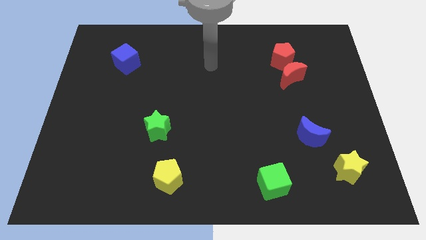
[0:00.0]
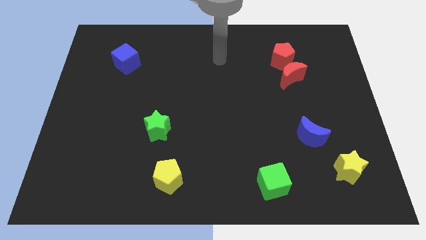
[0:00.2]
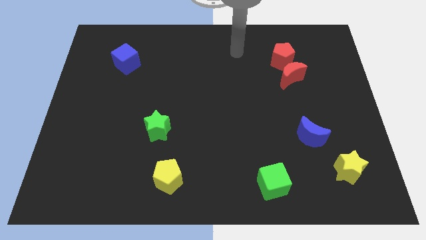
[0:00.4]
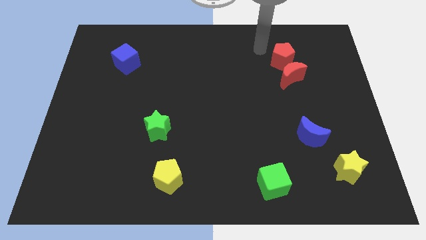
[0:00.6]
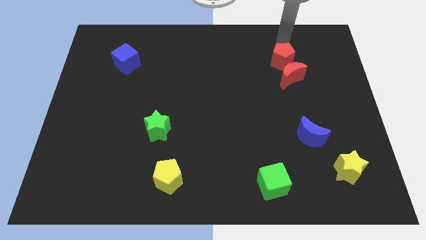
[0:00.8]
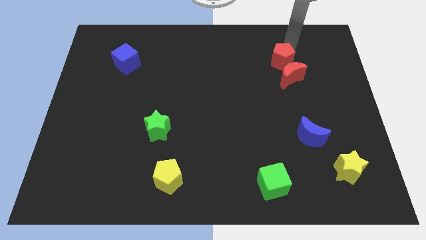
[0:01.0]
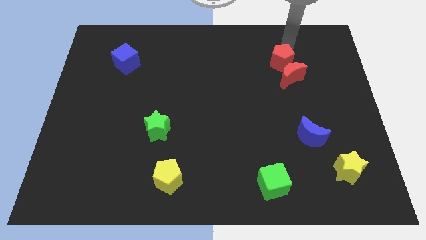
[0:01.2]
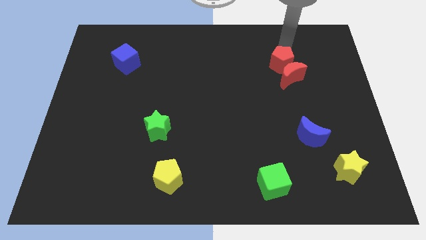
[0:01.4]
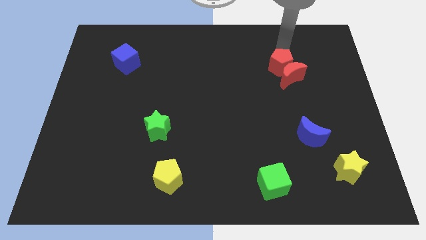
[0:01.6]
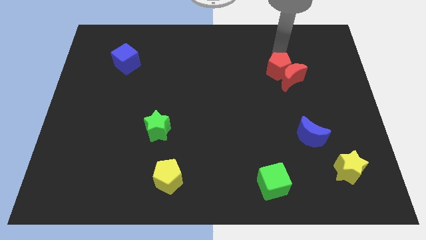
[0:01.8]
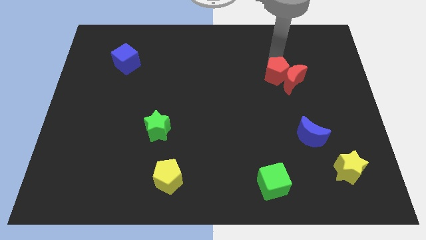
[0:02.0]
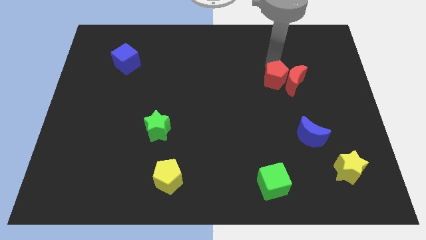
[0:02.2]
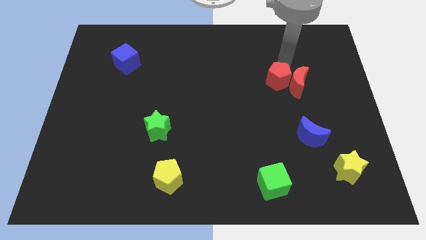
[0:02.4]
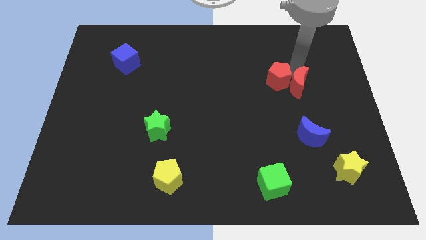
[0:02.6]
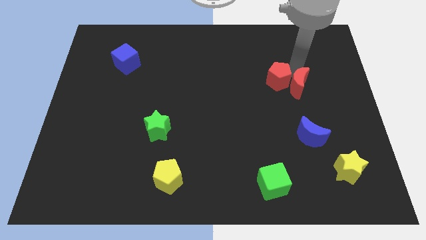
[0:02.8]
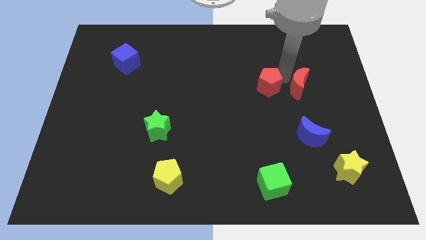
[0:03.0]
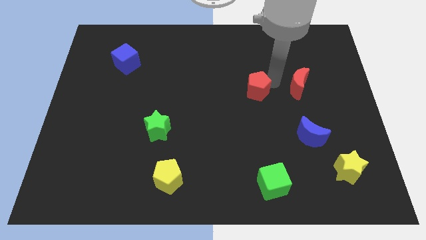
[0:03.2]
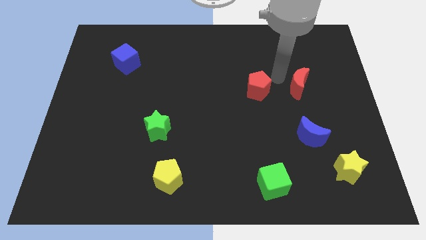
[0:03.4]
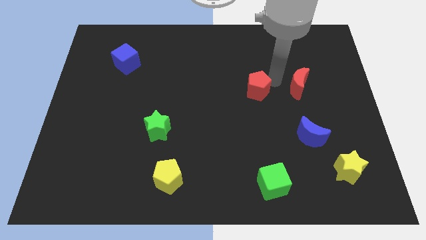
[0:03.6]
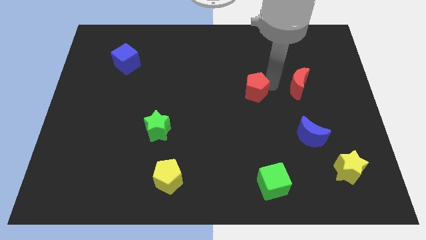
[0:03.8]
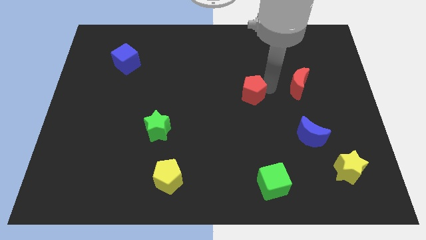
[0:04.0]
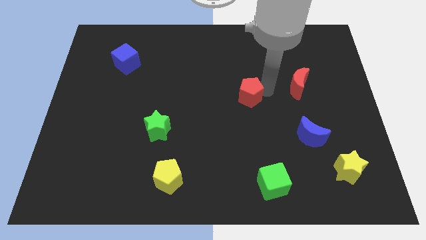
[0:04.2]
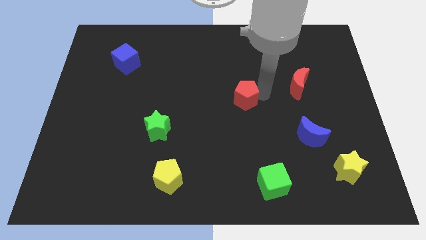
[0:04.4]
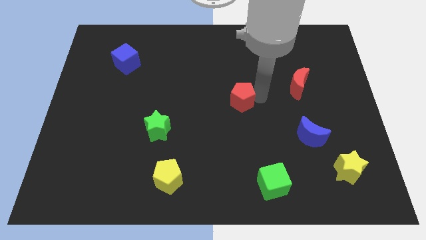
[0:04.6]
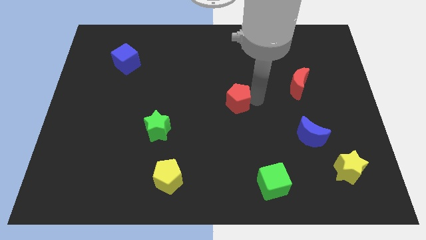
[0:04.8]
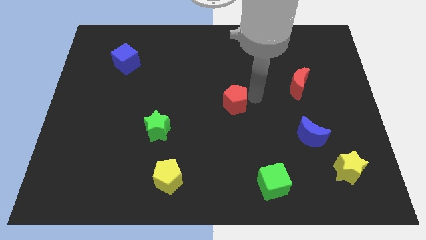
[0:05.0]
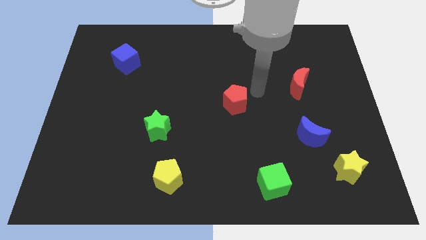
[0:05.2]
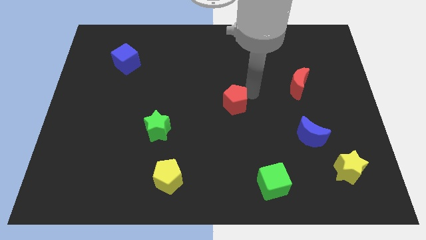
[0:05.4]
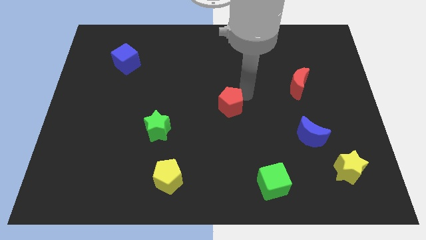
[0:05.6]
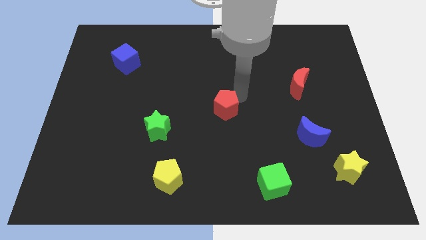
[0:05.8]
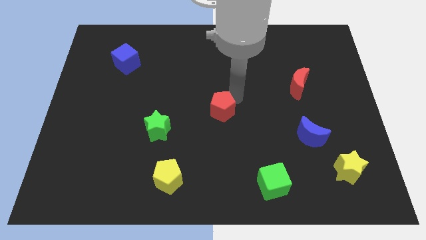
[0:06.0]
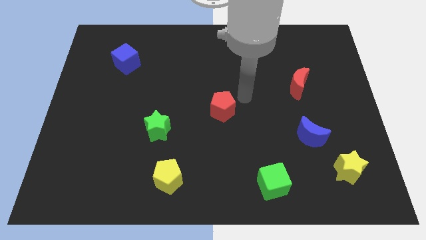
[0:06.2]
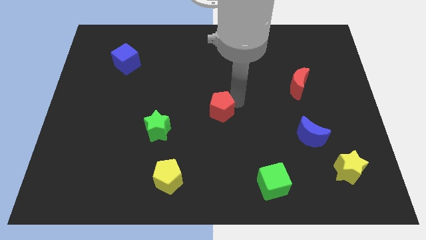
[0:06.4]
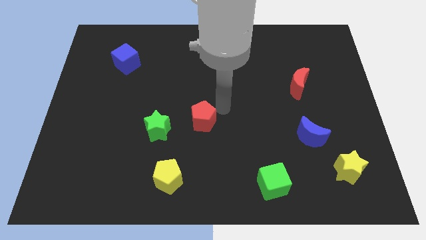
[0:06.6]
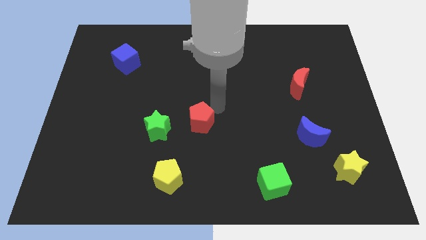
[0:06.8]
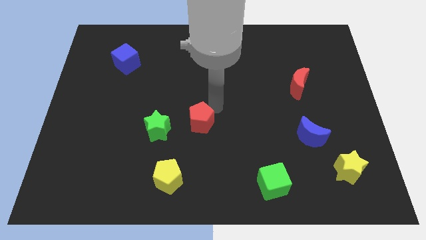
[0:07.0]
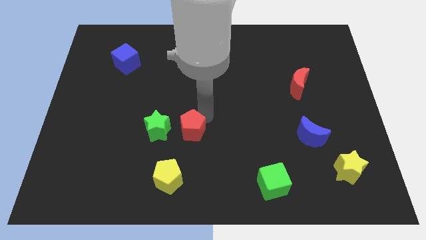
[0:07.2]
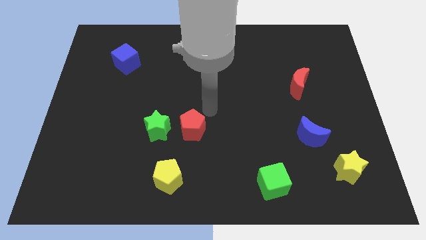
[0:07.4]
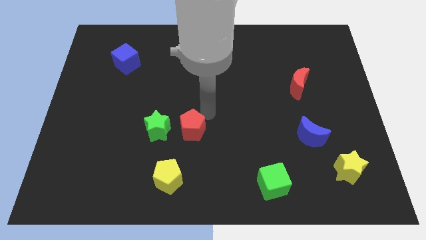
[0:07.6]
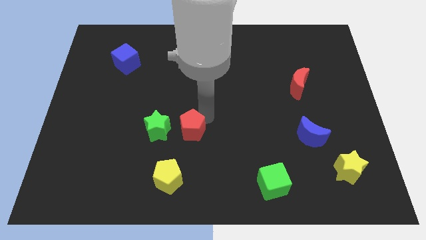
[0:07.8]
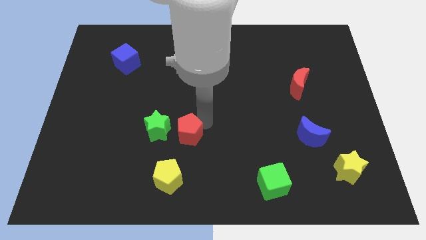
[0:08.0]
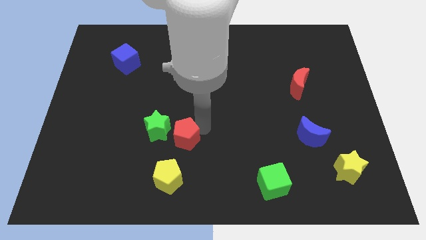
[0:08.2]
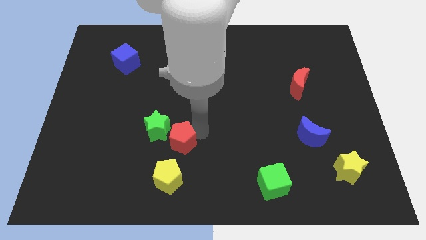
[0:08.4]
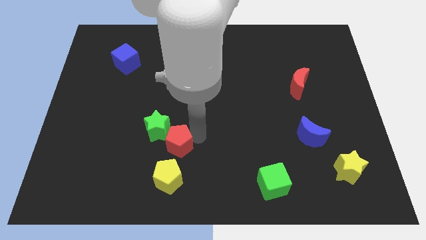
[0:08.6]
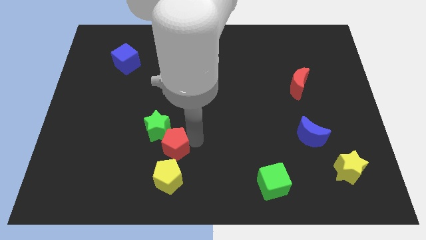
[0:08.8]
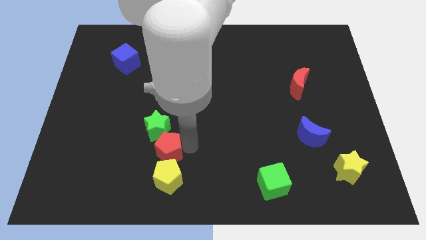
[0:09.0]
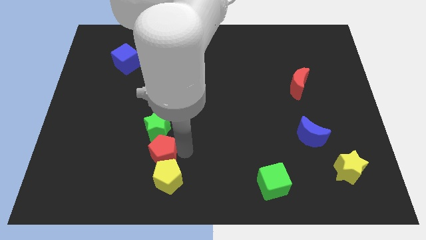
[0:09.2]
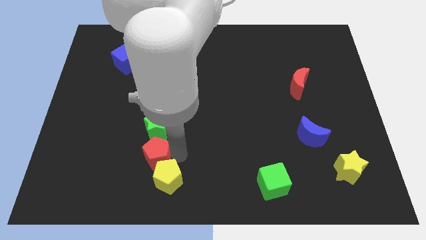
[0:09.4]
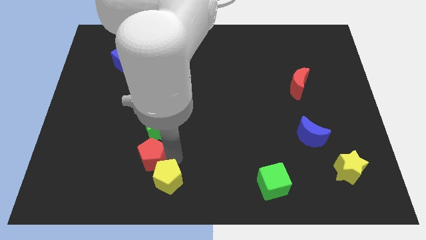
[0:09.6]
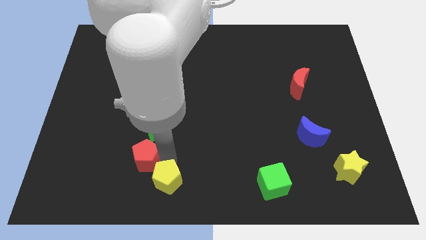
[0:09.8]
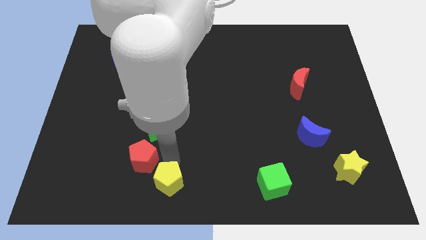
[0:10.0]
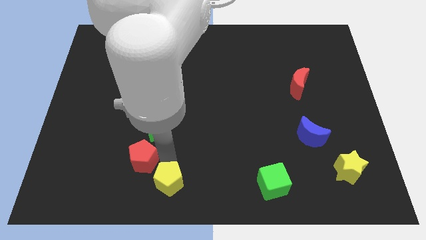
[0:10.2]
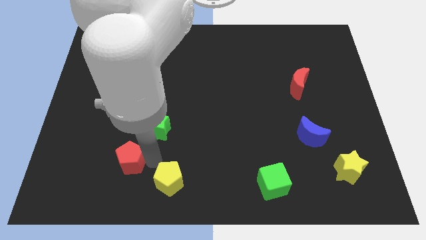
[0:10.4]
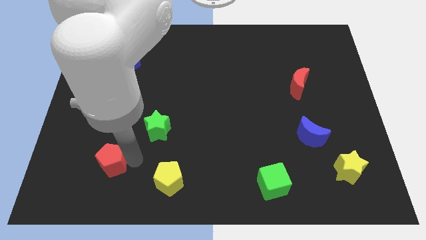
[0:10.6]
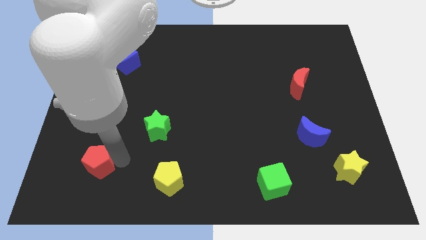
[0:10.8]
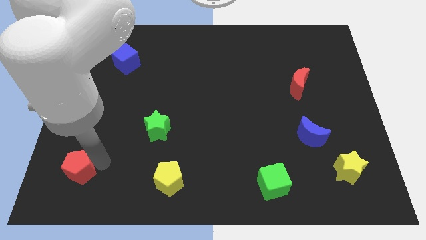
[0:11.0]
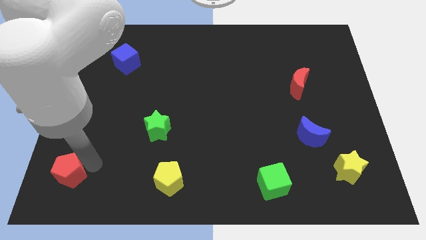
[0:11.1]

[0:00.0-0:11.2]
move the red pentagon to the lower left corner

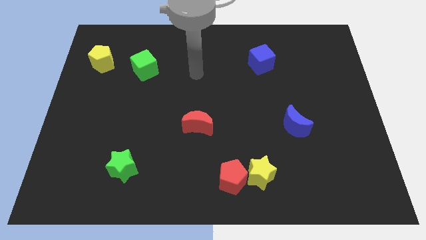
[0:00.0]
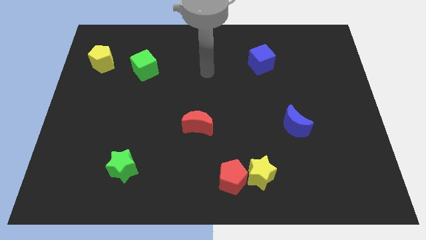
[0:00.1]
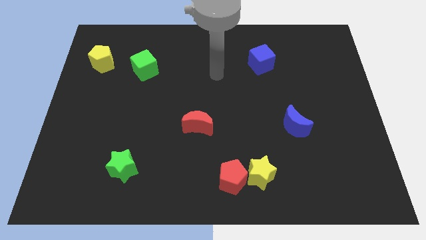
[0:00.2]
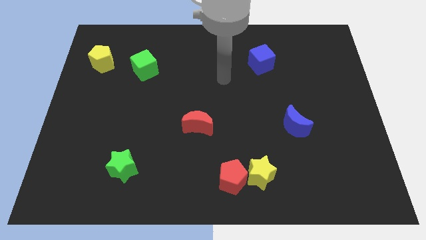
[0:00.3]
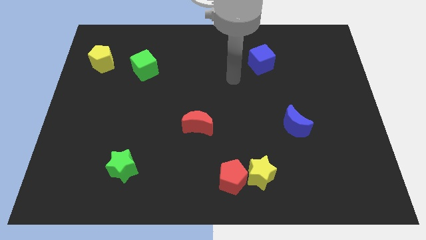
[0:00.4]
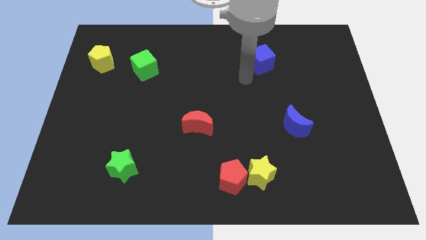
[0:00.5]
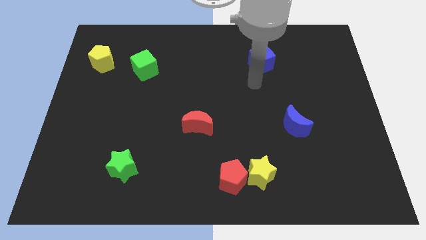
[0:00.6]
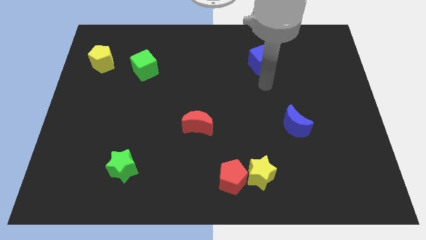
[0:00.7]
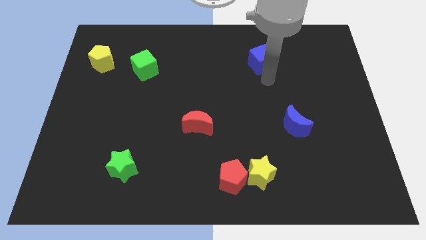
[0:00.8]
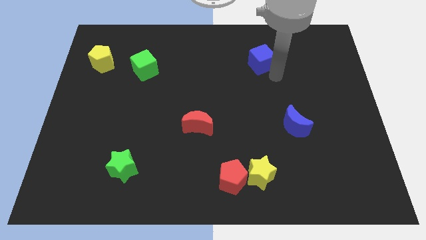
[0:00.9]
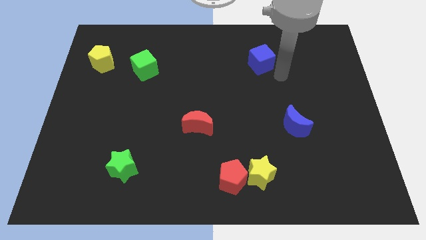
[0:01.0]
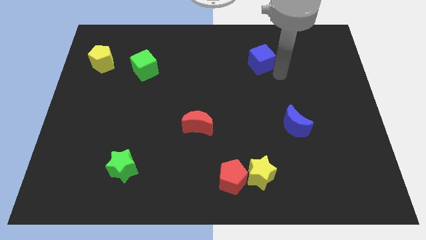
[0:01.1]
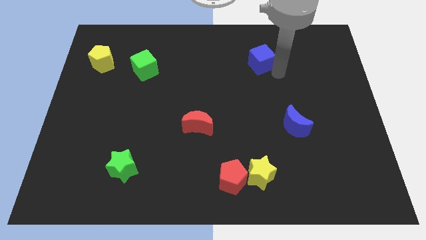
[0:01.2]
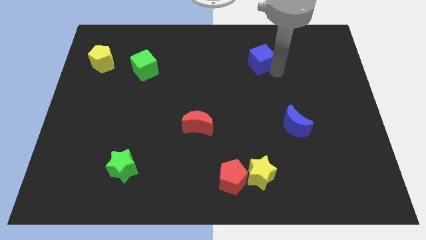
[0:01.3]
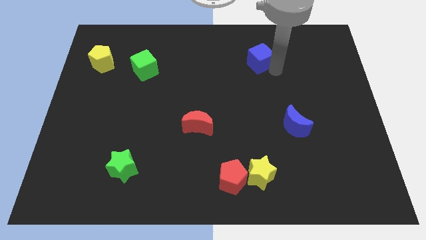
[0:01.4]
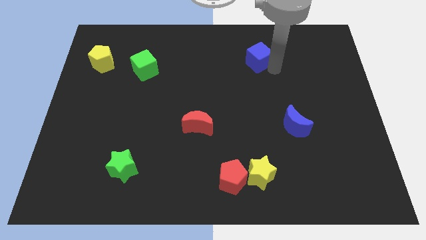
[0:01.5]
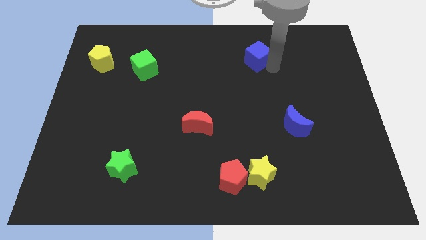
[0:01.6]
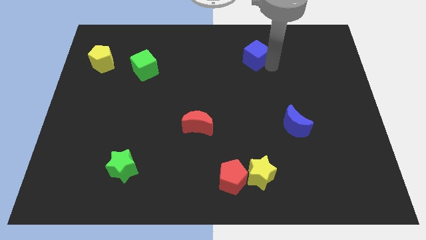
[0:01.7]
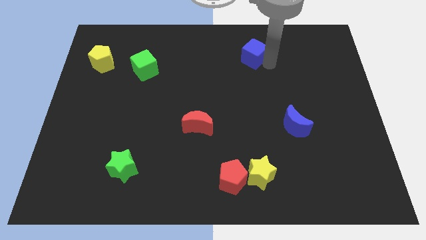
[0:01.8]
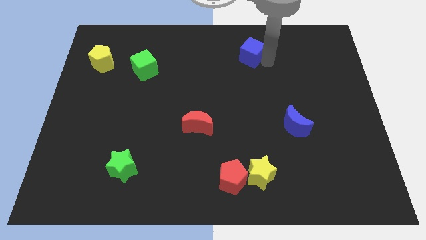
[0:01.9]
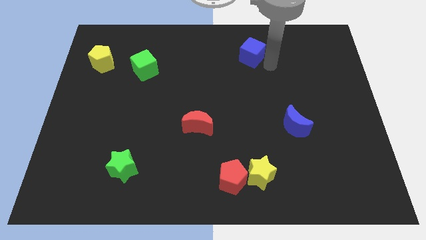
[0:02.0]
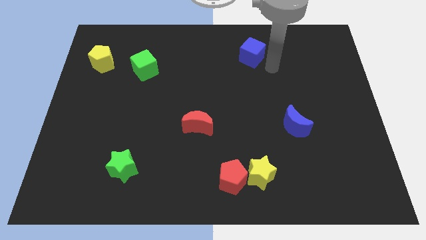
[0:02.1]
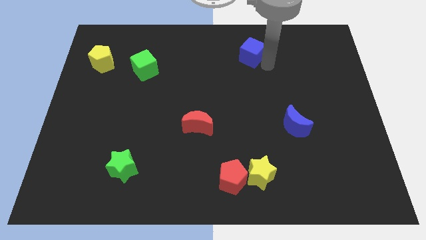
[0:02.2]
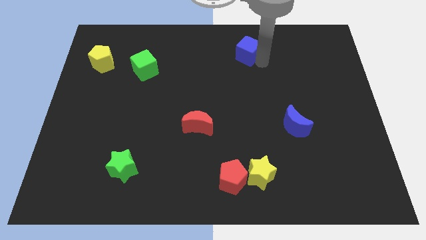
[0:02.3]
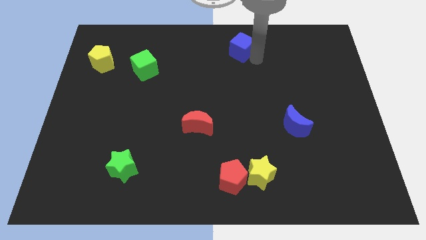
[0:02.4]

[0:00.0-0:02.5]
push the blue cube to the top
